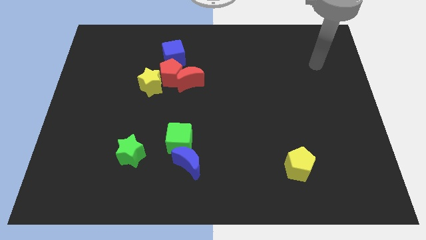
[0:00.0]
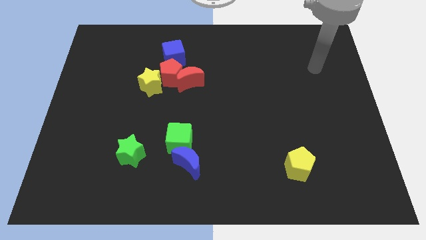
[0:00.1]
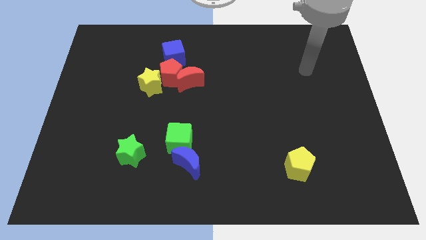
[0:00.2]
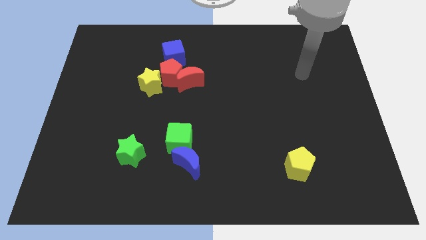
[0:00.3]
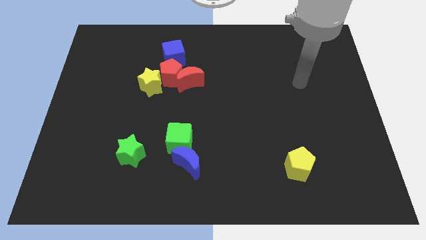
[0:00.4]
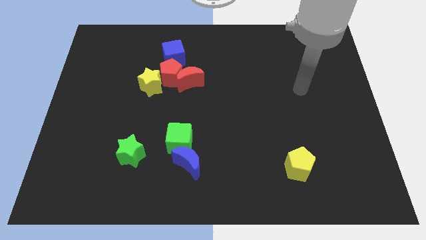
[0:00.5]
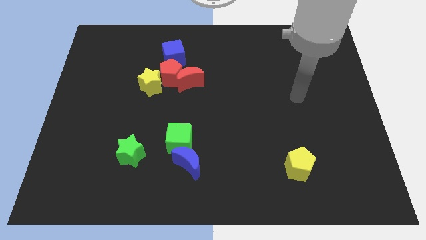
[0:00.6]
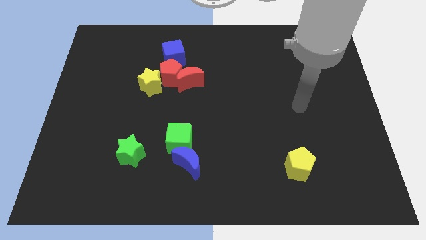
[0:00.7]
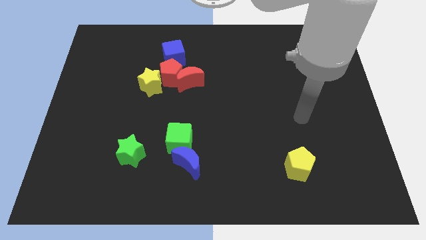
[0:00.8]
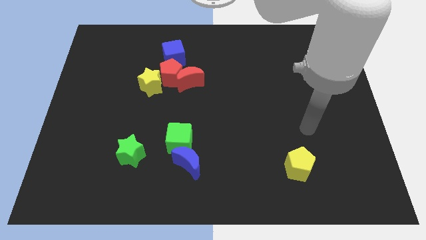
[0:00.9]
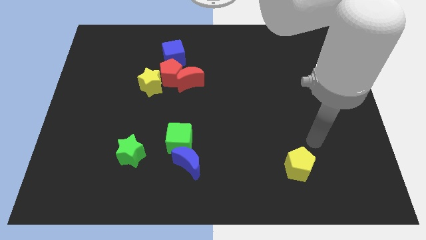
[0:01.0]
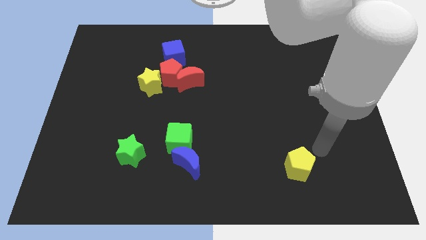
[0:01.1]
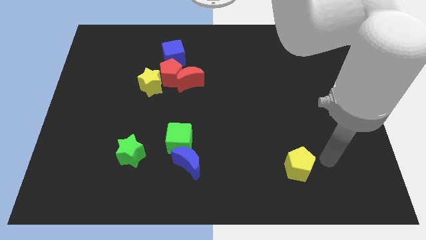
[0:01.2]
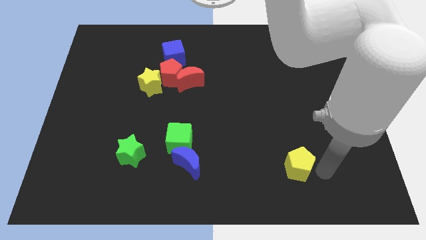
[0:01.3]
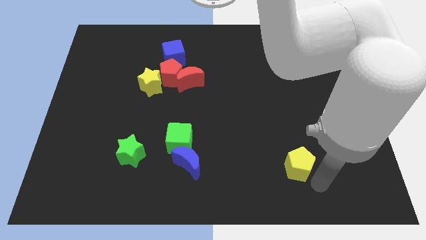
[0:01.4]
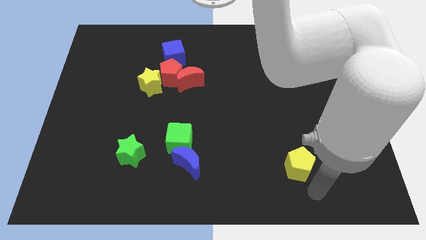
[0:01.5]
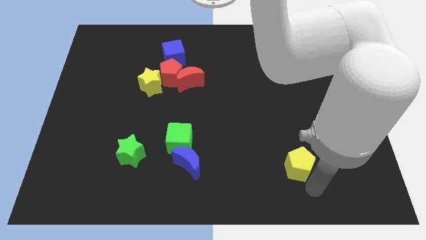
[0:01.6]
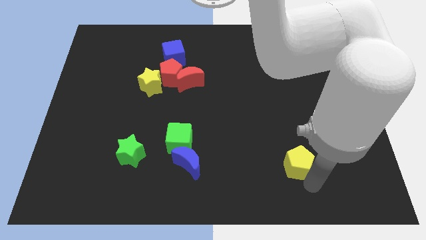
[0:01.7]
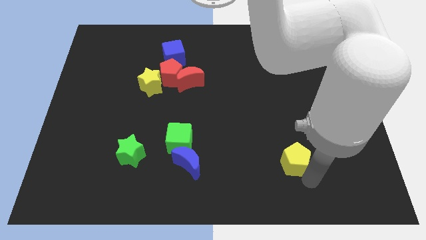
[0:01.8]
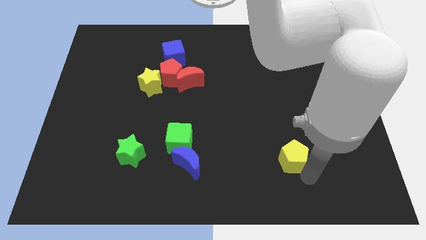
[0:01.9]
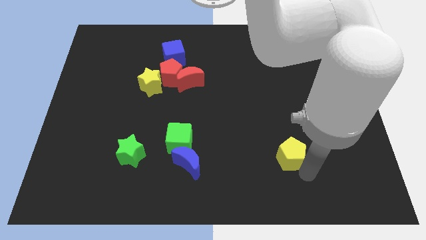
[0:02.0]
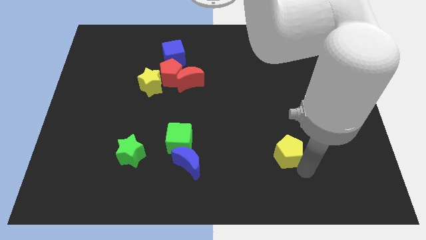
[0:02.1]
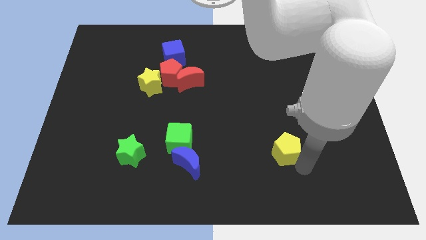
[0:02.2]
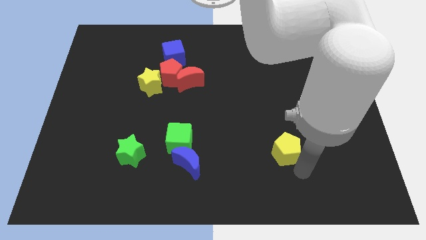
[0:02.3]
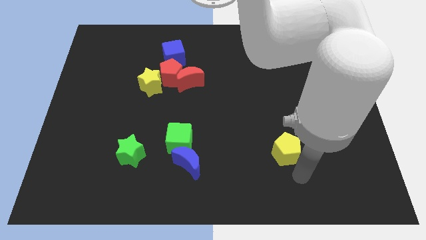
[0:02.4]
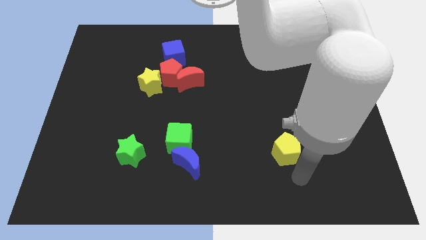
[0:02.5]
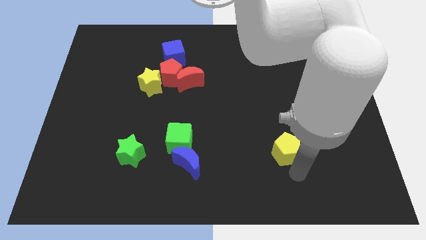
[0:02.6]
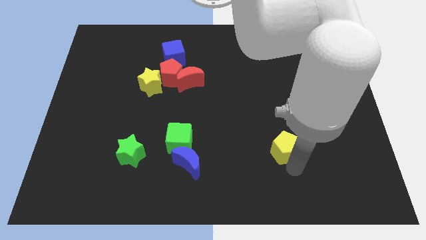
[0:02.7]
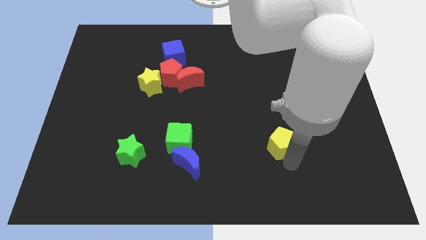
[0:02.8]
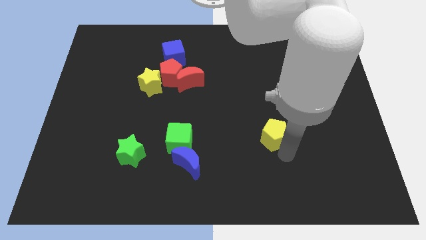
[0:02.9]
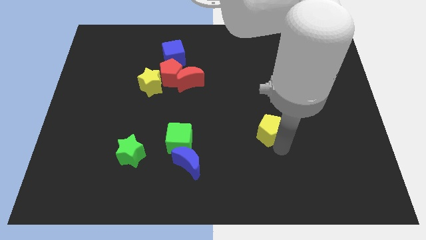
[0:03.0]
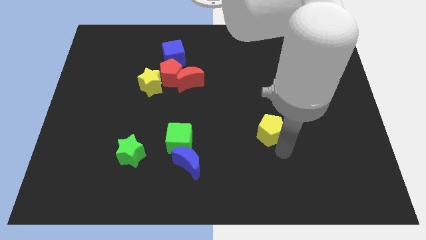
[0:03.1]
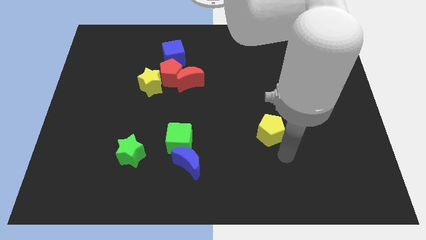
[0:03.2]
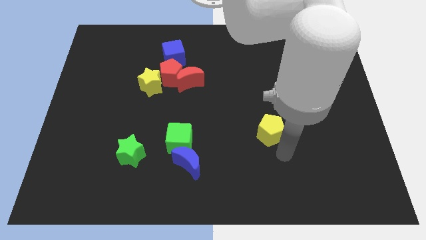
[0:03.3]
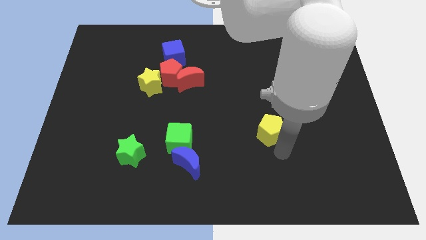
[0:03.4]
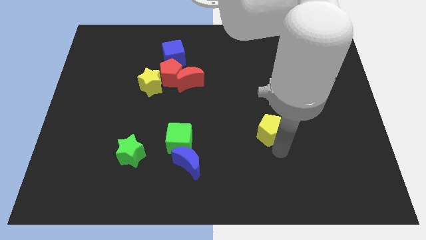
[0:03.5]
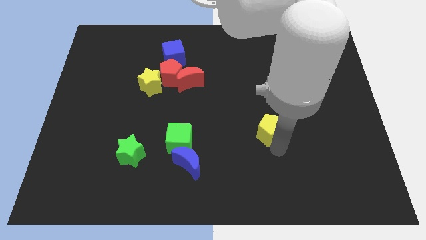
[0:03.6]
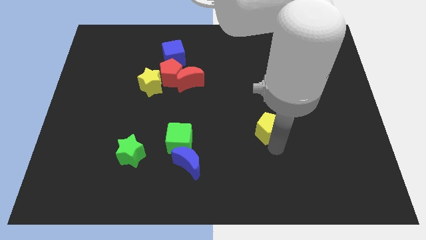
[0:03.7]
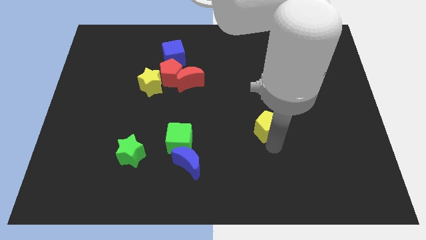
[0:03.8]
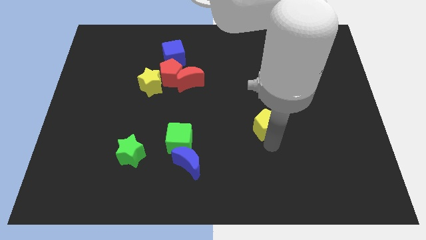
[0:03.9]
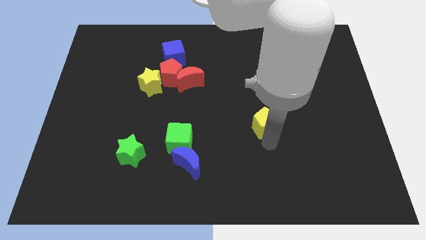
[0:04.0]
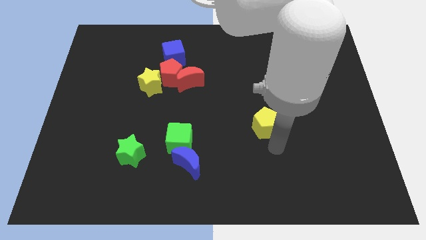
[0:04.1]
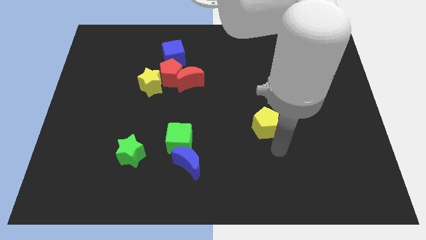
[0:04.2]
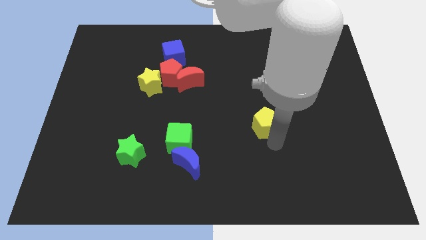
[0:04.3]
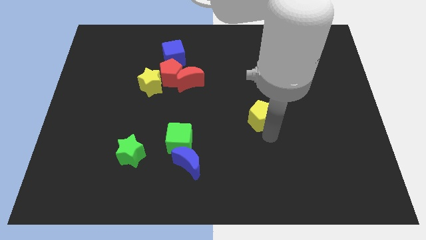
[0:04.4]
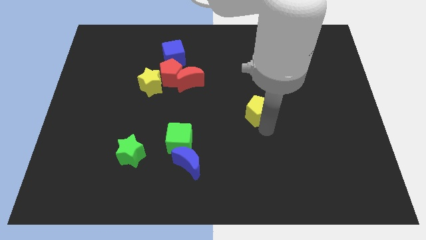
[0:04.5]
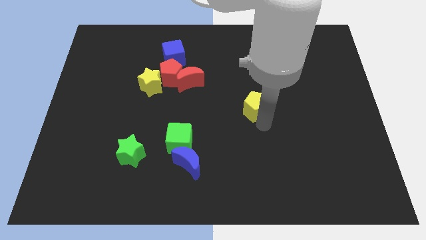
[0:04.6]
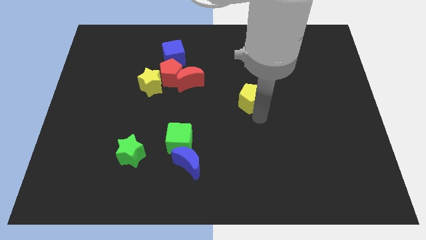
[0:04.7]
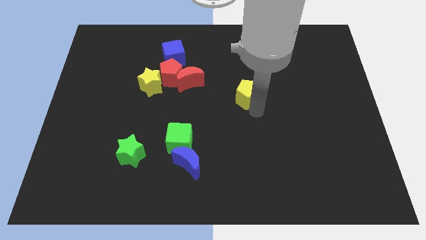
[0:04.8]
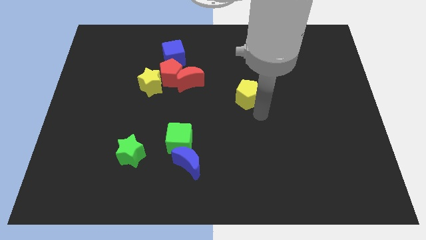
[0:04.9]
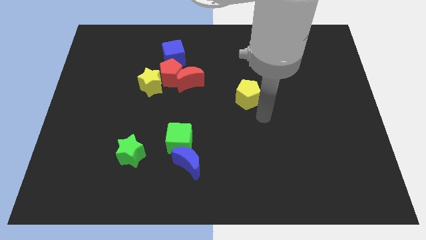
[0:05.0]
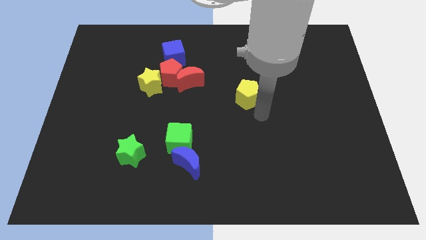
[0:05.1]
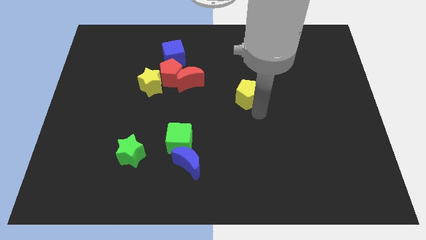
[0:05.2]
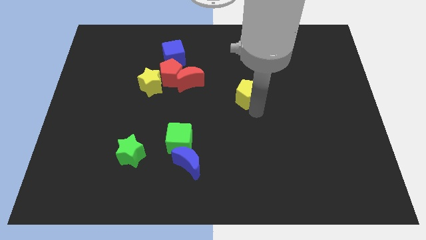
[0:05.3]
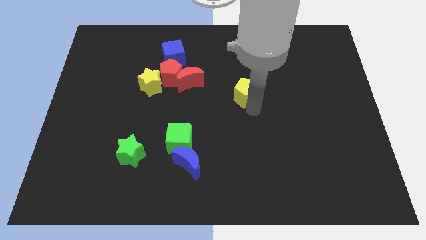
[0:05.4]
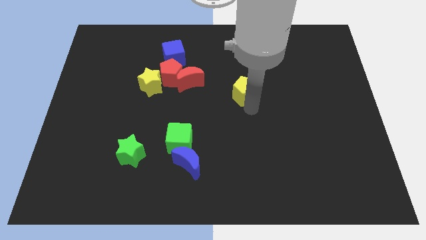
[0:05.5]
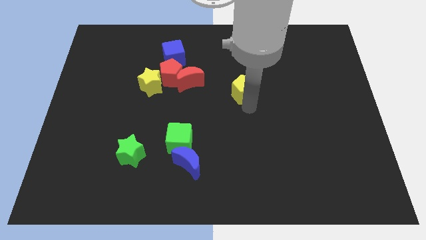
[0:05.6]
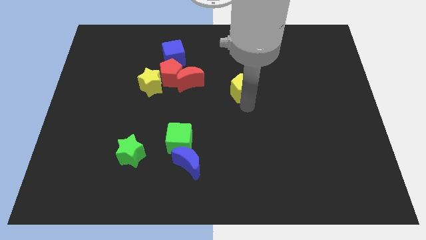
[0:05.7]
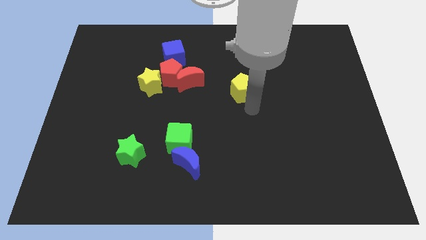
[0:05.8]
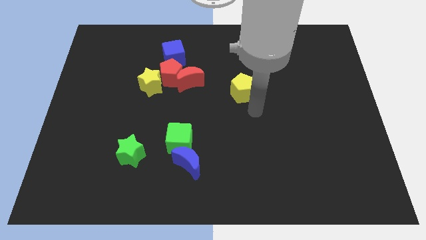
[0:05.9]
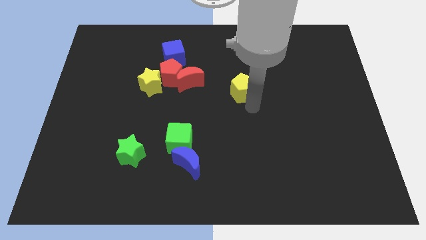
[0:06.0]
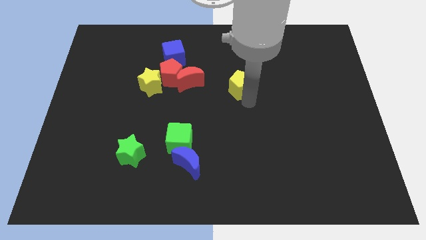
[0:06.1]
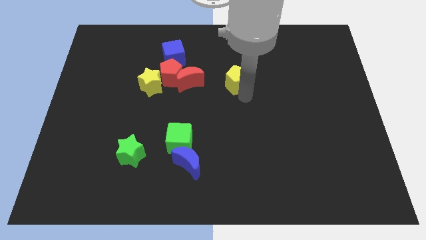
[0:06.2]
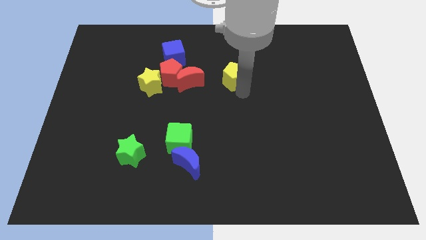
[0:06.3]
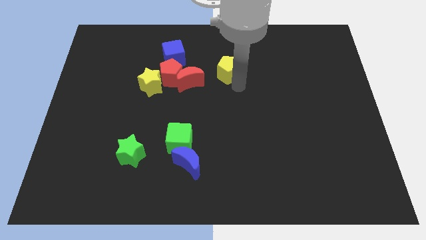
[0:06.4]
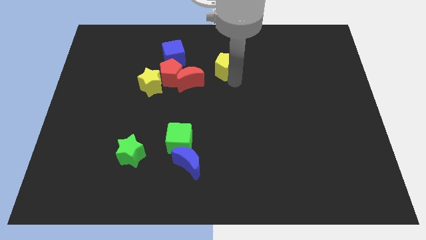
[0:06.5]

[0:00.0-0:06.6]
put the yellow pentagon right of the blue cube

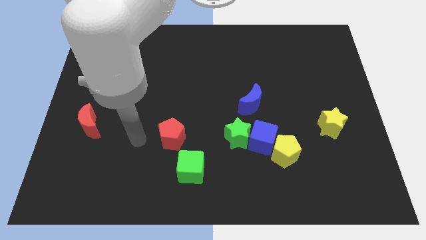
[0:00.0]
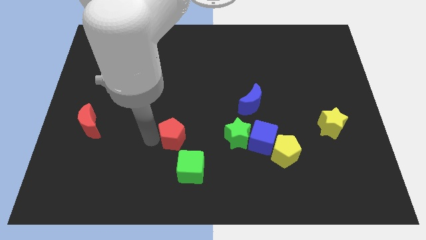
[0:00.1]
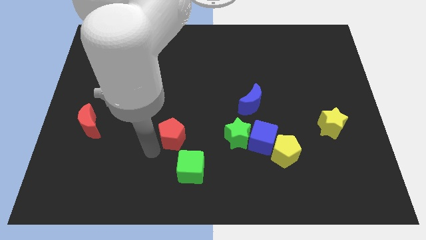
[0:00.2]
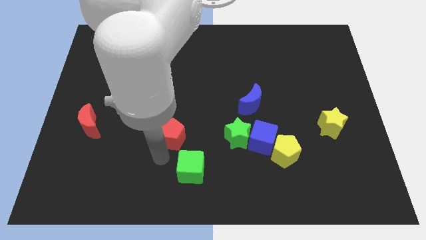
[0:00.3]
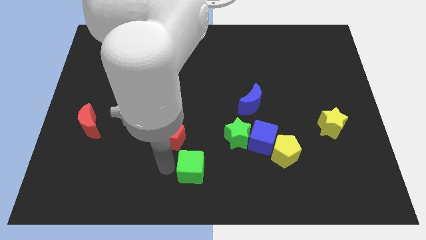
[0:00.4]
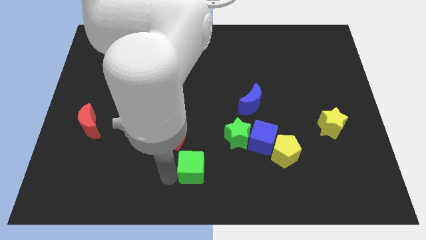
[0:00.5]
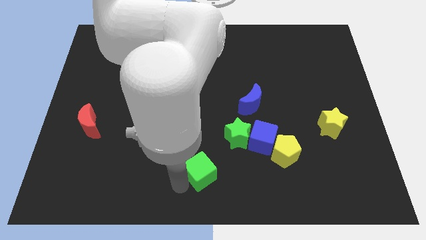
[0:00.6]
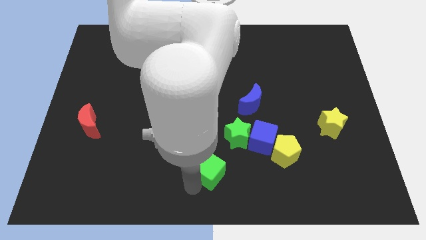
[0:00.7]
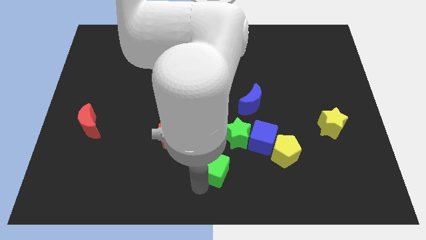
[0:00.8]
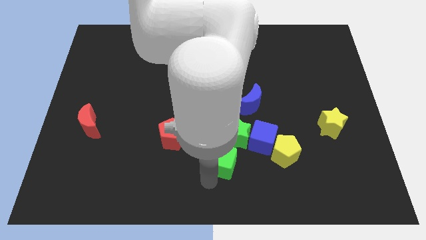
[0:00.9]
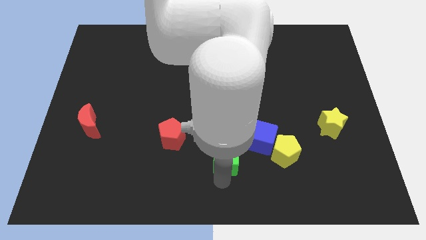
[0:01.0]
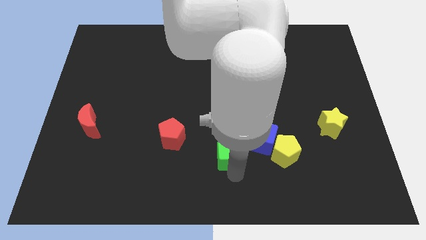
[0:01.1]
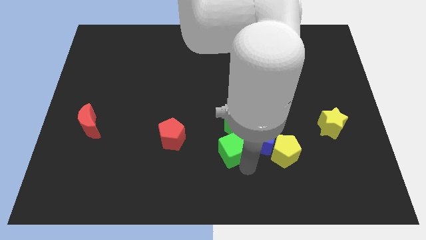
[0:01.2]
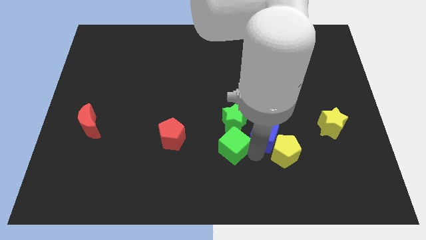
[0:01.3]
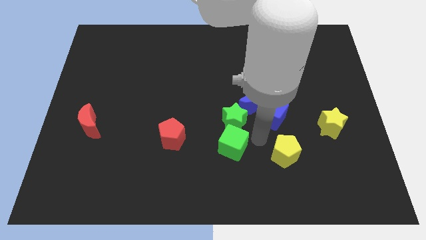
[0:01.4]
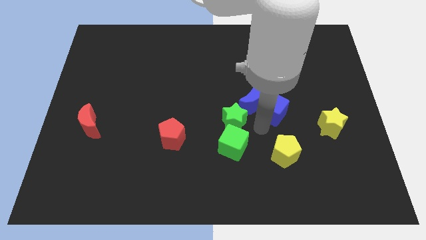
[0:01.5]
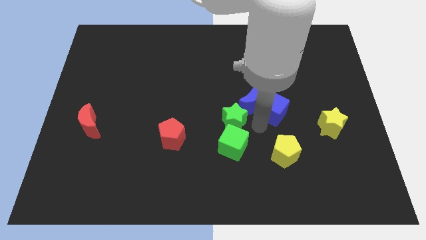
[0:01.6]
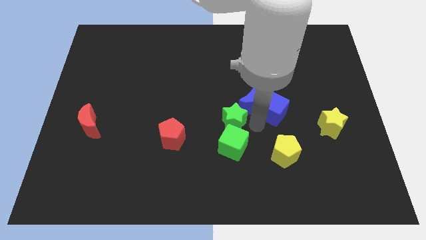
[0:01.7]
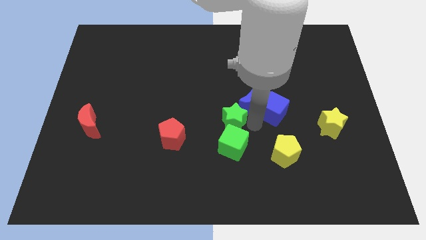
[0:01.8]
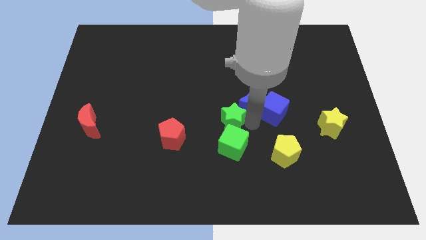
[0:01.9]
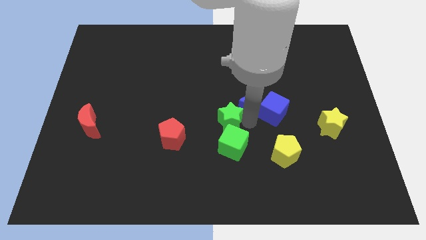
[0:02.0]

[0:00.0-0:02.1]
slide the green star just left of the blue moon
